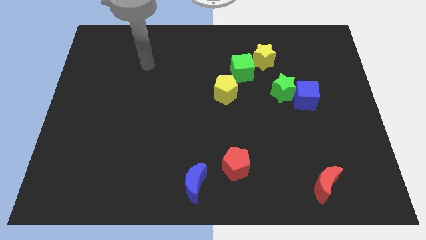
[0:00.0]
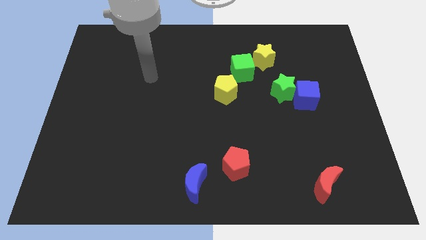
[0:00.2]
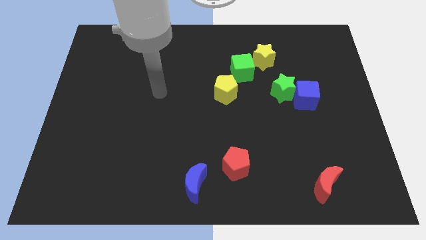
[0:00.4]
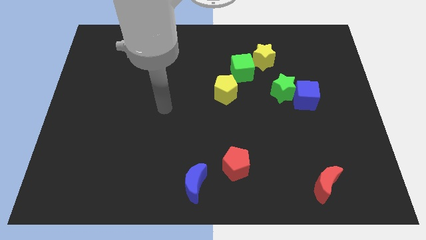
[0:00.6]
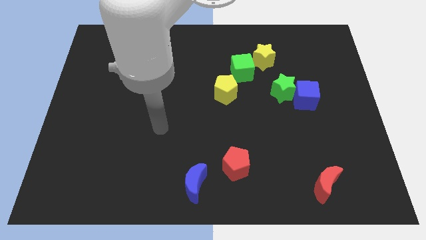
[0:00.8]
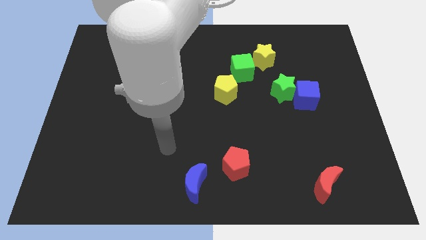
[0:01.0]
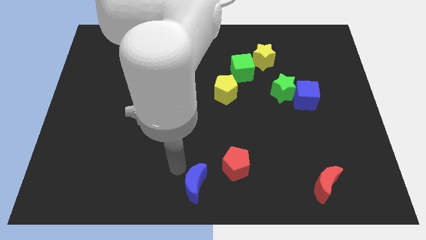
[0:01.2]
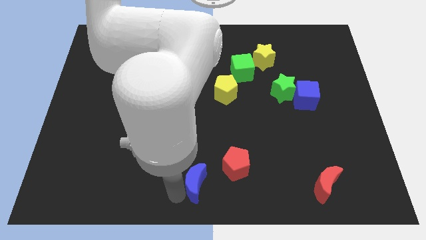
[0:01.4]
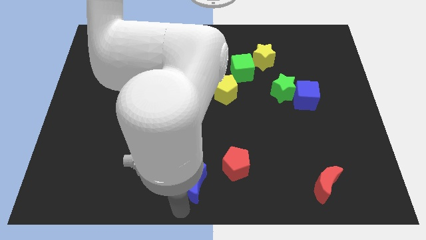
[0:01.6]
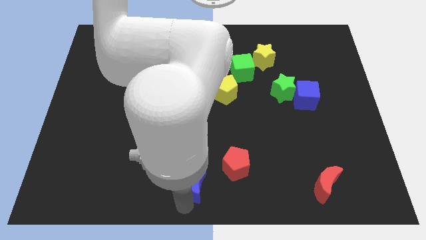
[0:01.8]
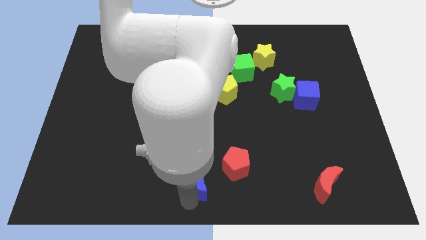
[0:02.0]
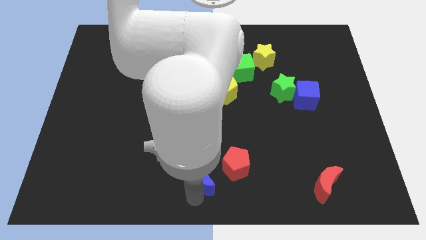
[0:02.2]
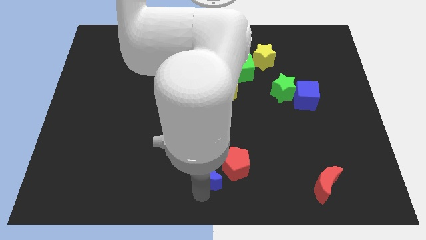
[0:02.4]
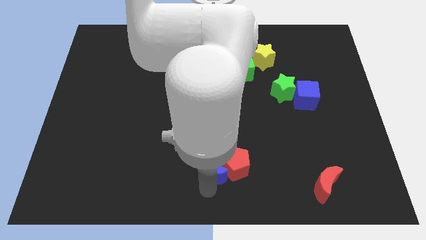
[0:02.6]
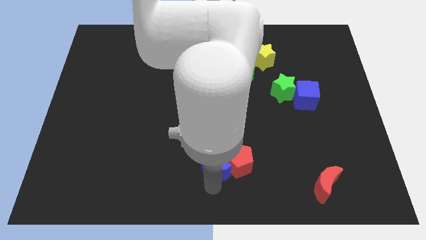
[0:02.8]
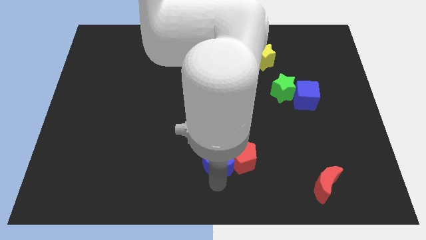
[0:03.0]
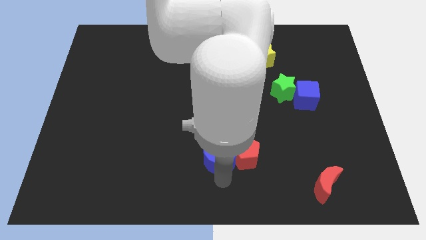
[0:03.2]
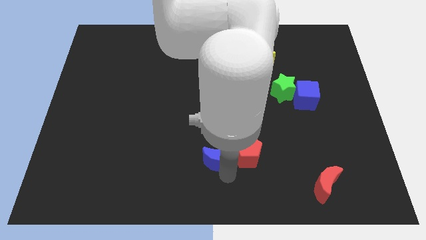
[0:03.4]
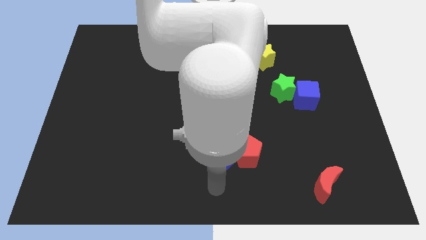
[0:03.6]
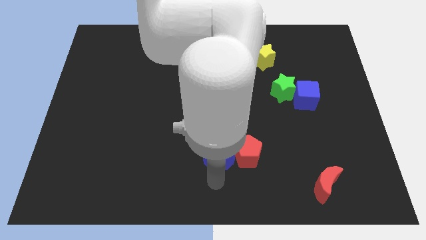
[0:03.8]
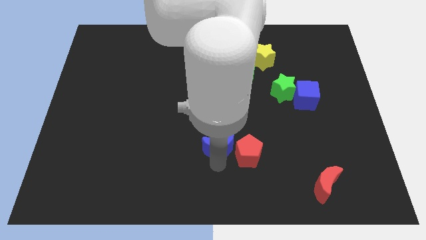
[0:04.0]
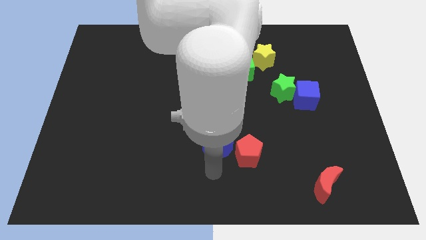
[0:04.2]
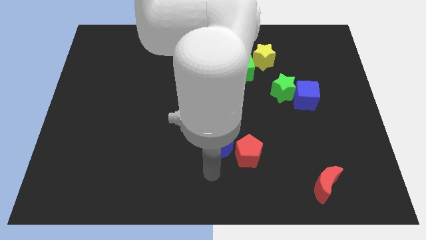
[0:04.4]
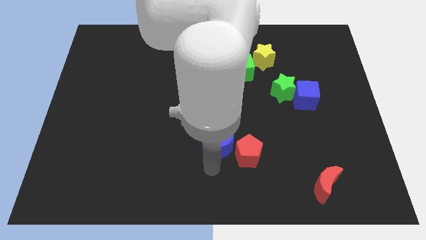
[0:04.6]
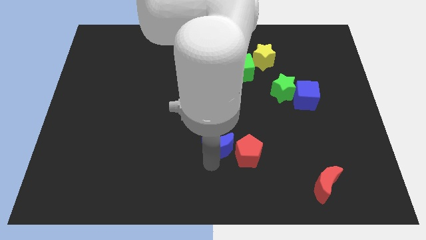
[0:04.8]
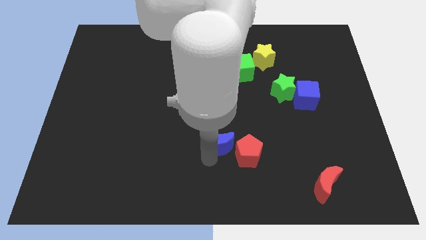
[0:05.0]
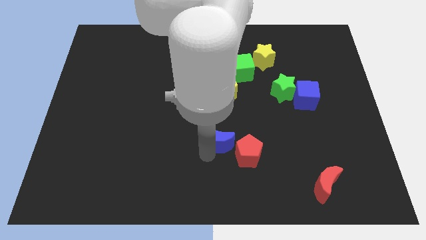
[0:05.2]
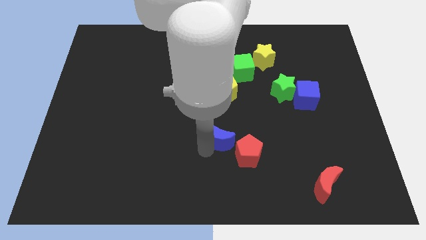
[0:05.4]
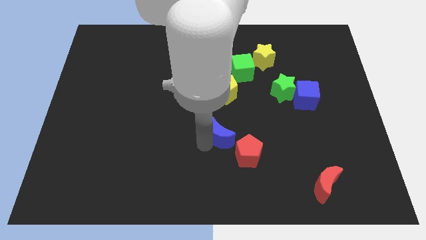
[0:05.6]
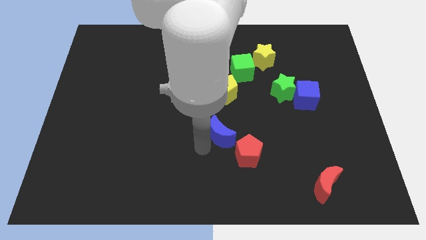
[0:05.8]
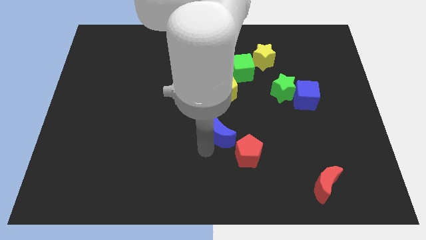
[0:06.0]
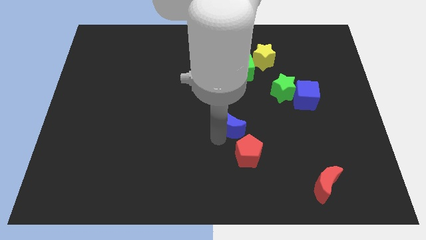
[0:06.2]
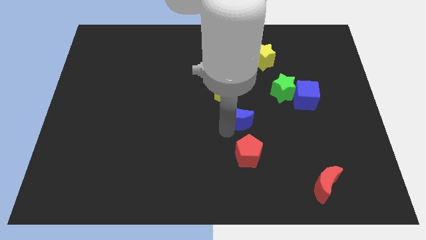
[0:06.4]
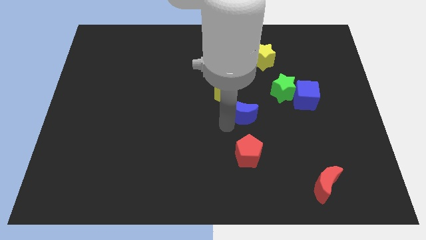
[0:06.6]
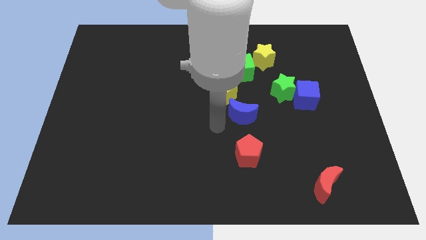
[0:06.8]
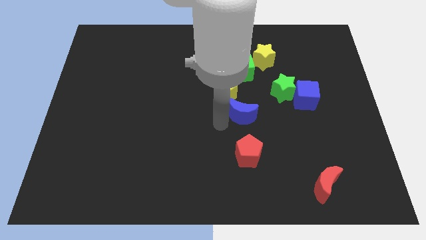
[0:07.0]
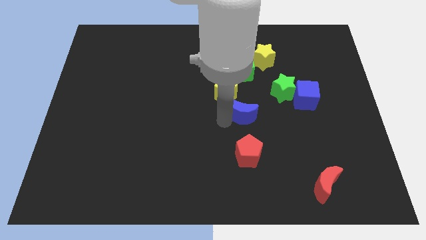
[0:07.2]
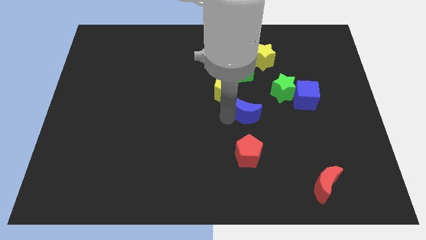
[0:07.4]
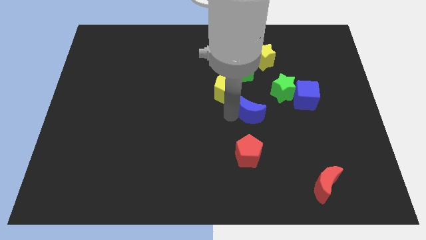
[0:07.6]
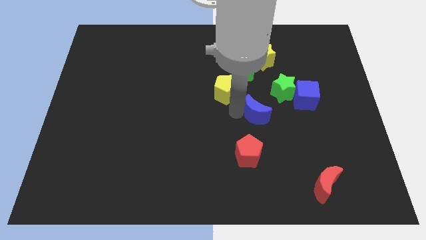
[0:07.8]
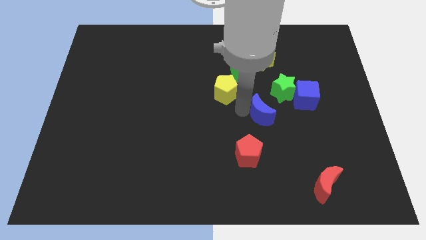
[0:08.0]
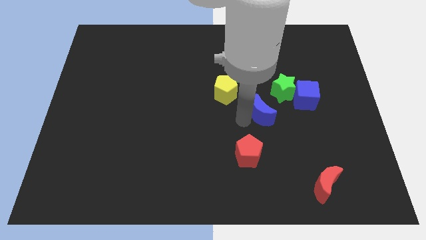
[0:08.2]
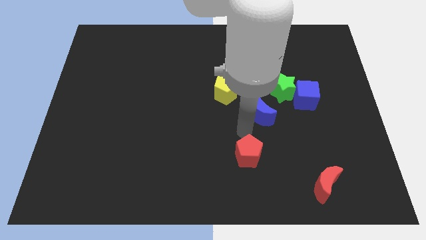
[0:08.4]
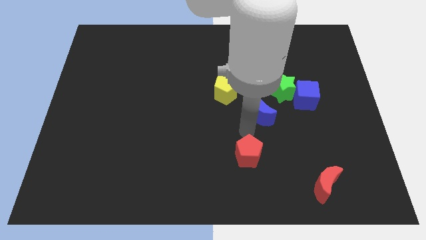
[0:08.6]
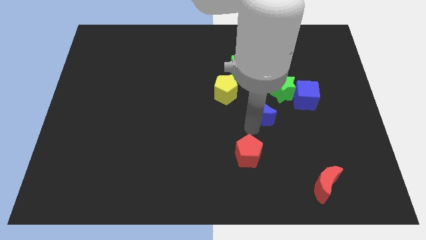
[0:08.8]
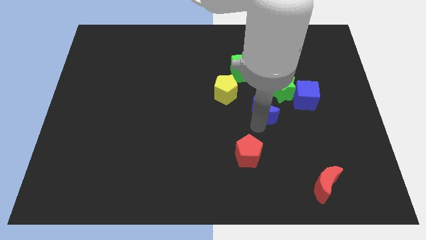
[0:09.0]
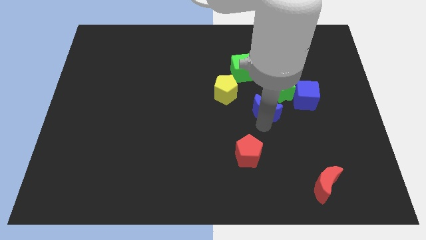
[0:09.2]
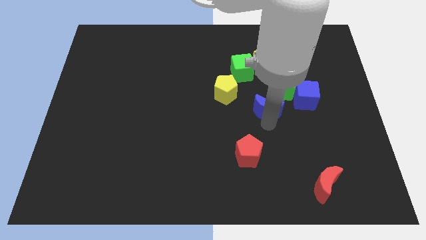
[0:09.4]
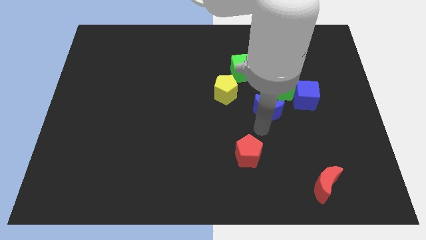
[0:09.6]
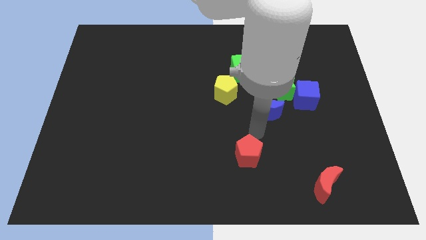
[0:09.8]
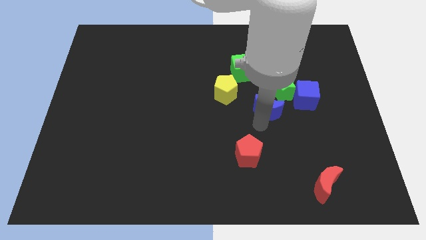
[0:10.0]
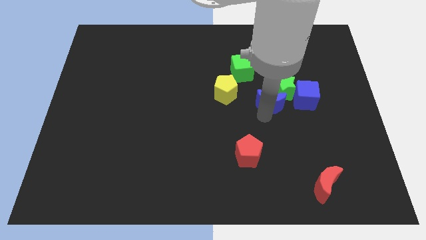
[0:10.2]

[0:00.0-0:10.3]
slide the blue moon close to the green star

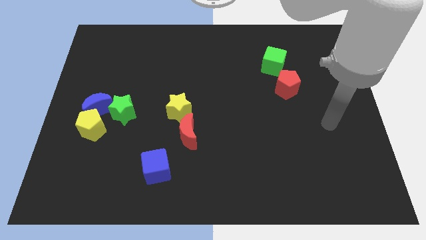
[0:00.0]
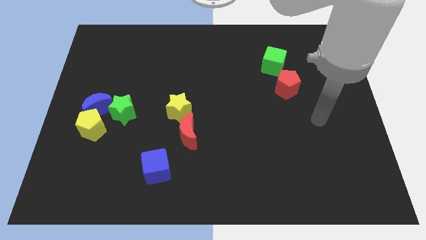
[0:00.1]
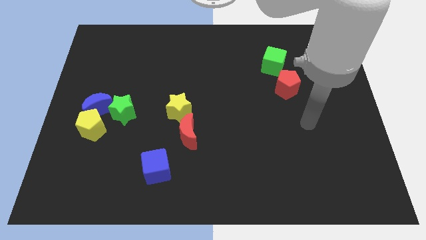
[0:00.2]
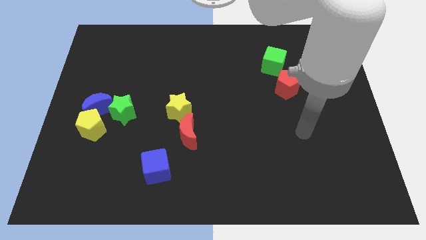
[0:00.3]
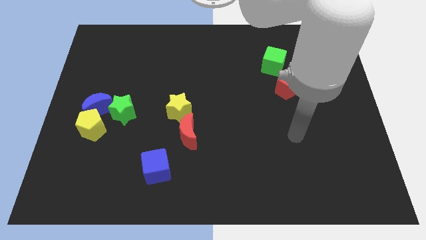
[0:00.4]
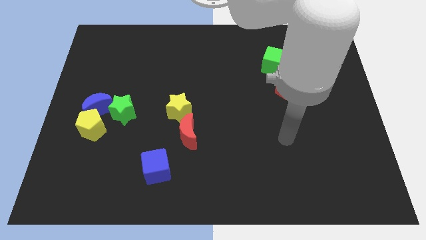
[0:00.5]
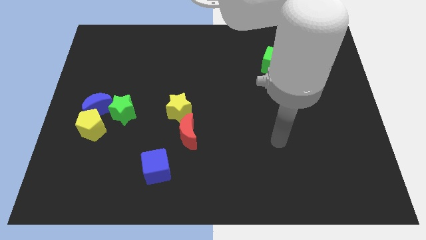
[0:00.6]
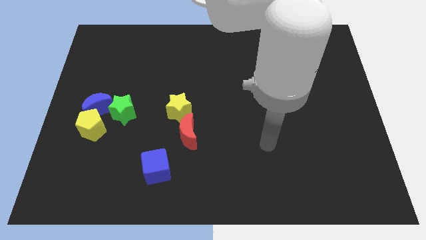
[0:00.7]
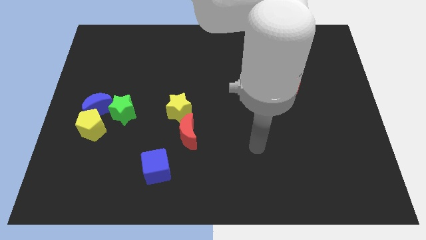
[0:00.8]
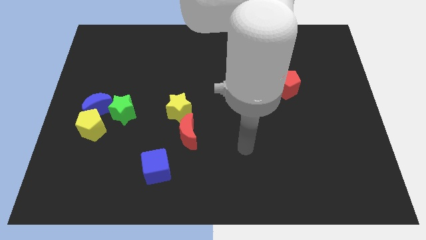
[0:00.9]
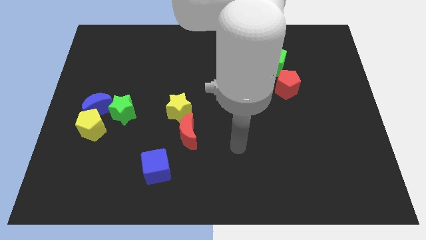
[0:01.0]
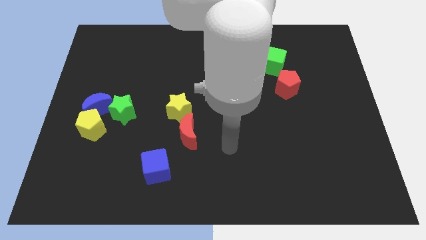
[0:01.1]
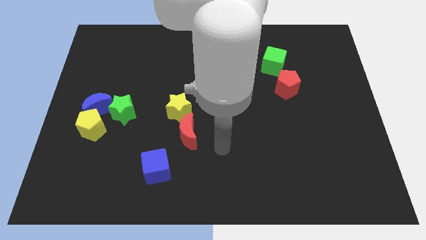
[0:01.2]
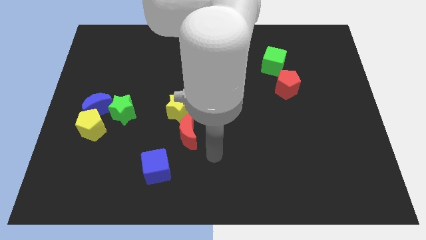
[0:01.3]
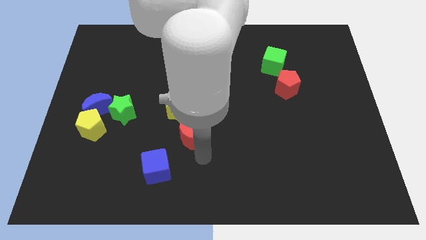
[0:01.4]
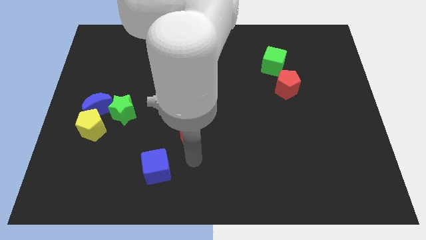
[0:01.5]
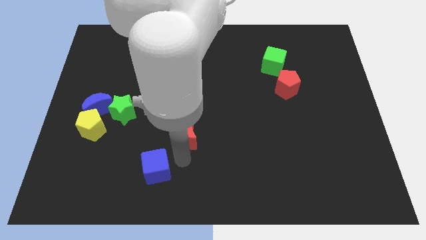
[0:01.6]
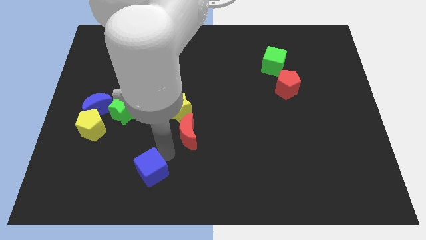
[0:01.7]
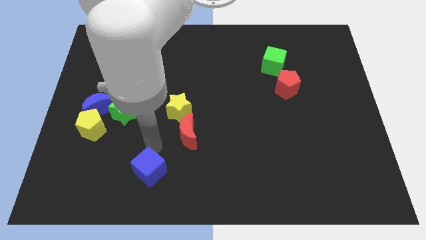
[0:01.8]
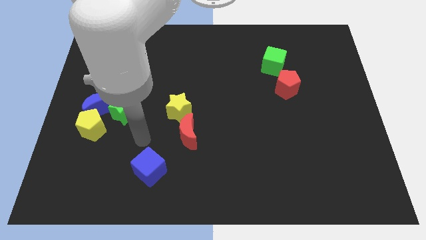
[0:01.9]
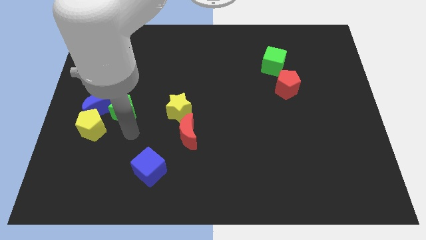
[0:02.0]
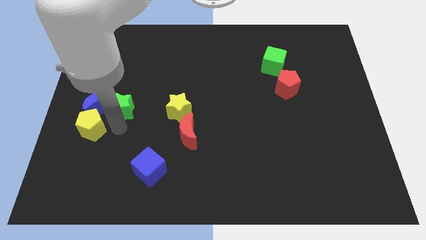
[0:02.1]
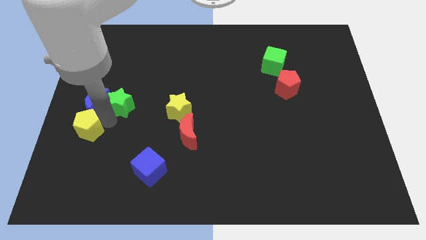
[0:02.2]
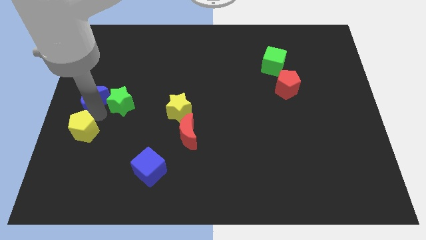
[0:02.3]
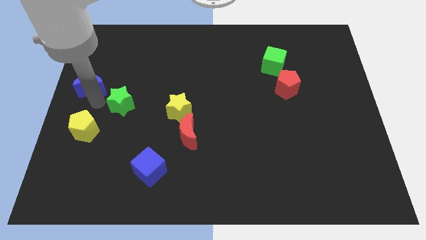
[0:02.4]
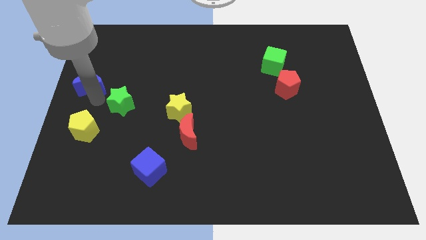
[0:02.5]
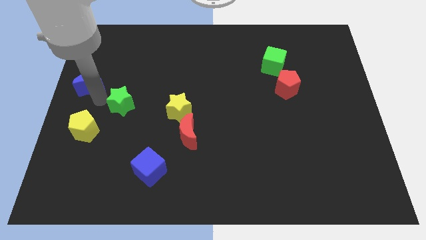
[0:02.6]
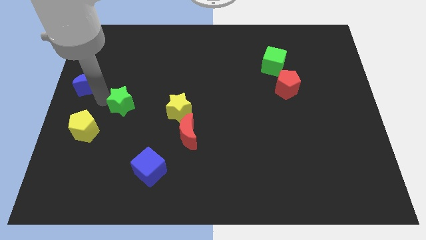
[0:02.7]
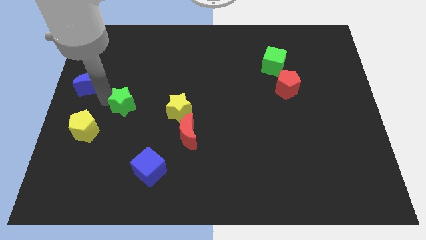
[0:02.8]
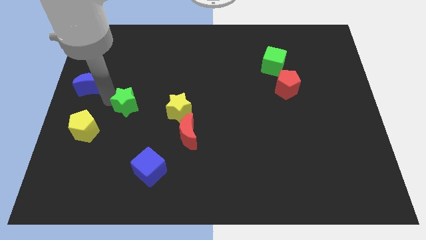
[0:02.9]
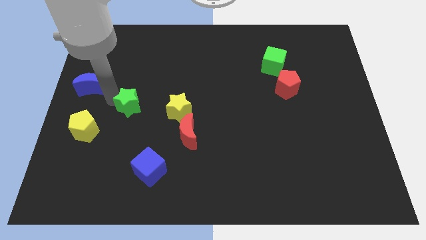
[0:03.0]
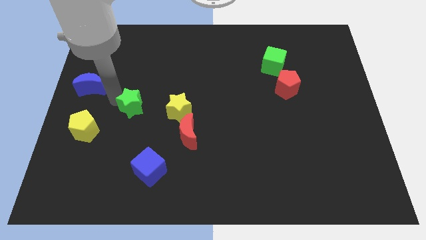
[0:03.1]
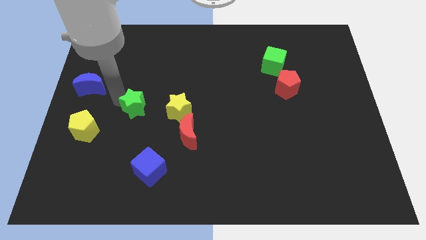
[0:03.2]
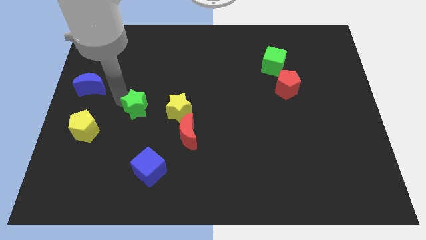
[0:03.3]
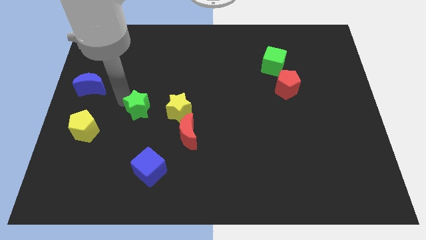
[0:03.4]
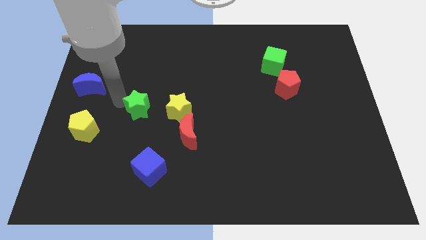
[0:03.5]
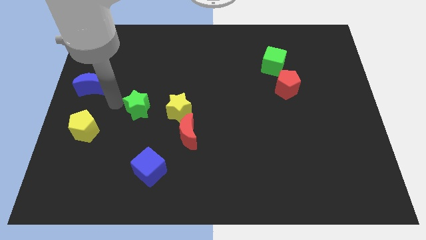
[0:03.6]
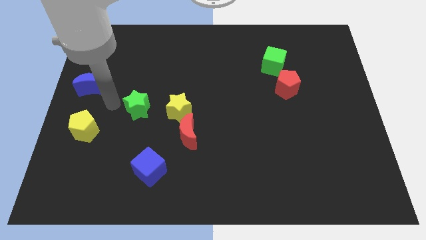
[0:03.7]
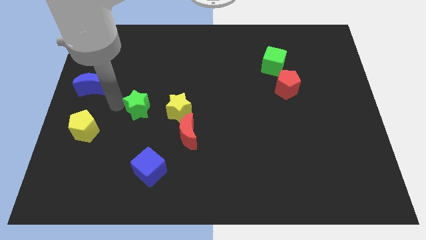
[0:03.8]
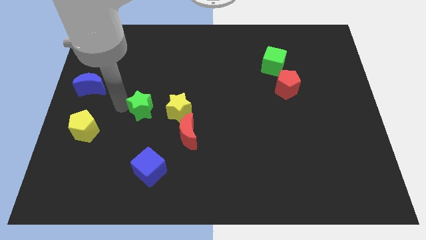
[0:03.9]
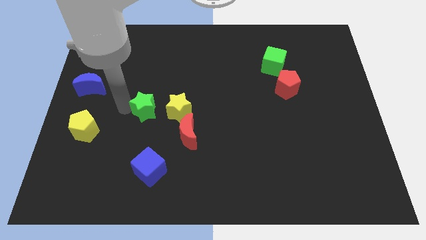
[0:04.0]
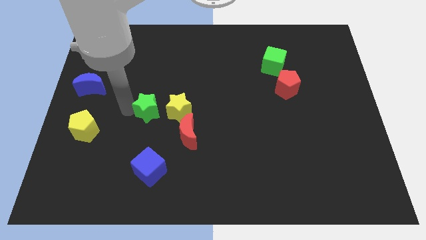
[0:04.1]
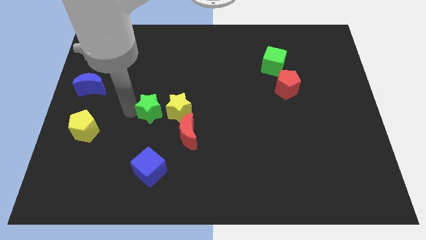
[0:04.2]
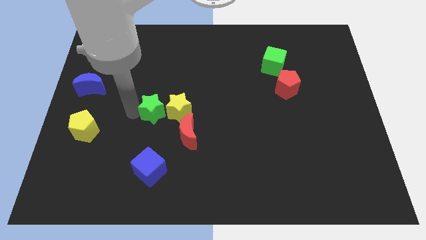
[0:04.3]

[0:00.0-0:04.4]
move the green star close to the yellow star
